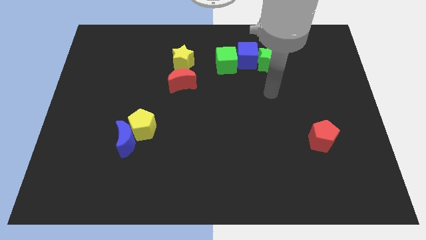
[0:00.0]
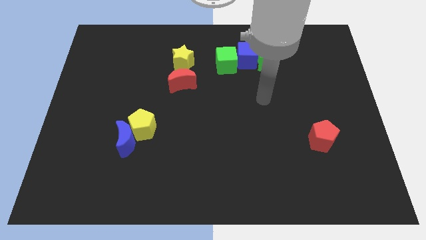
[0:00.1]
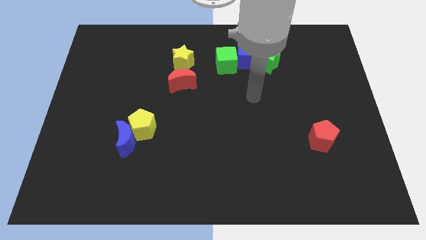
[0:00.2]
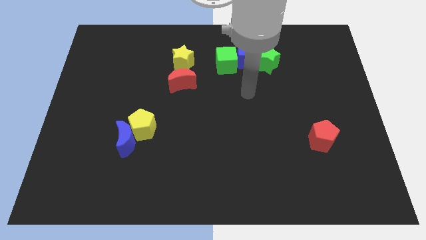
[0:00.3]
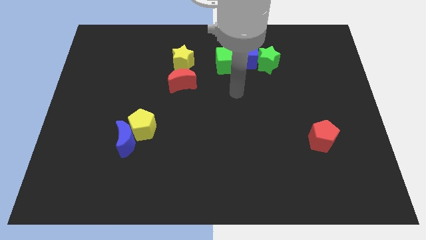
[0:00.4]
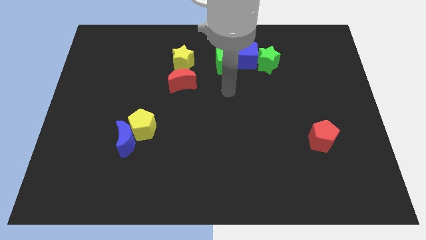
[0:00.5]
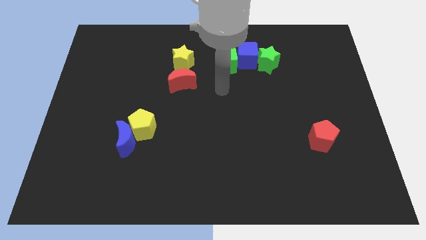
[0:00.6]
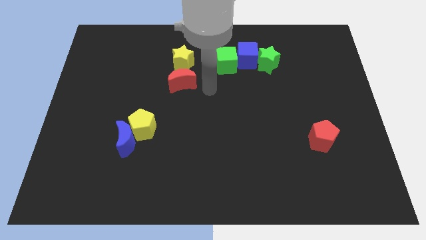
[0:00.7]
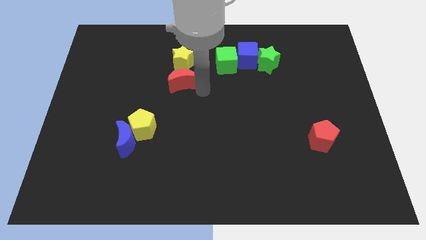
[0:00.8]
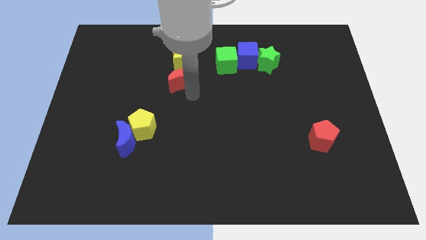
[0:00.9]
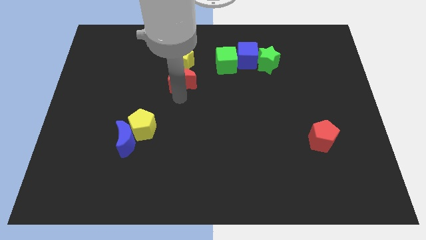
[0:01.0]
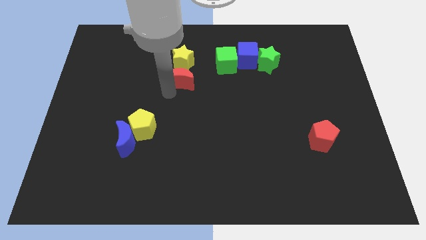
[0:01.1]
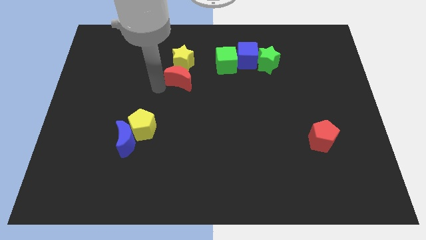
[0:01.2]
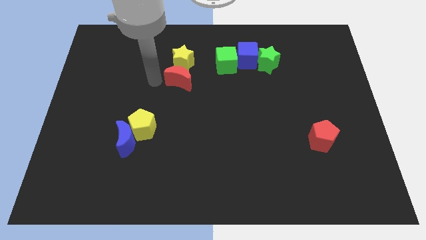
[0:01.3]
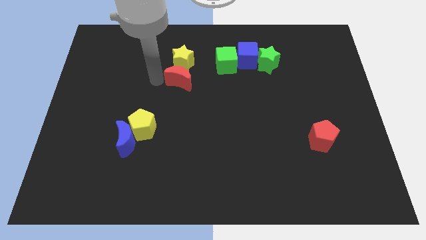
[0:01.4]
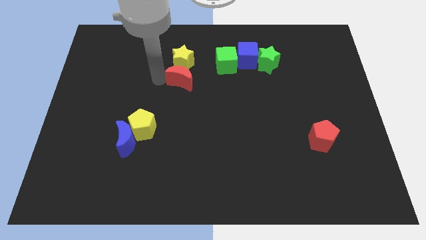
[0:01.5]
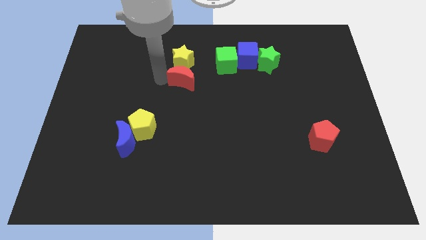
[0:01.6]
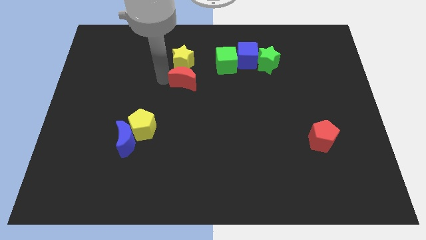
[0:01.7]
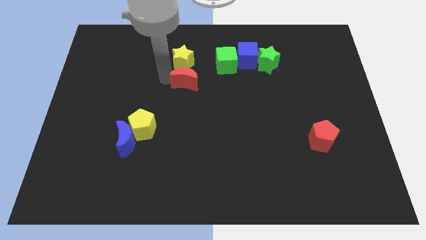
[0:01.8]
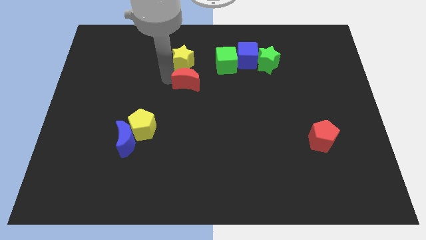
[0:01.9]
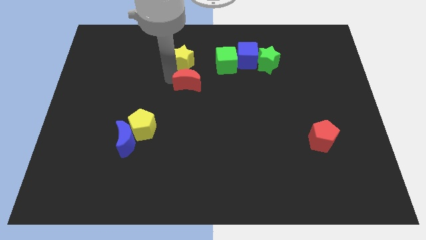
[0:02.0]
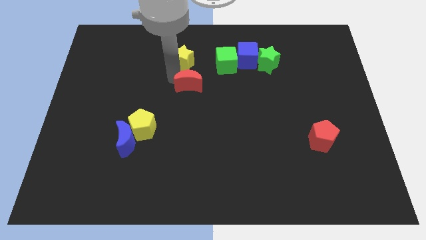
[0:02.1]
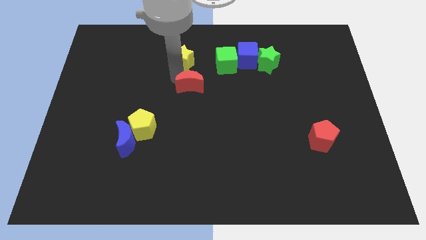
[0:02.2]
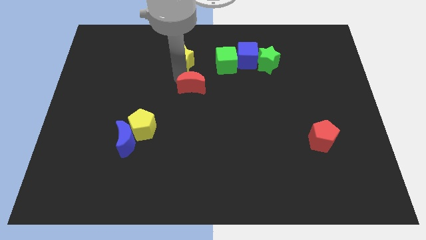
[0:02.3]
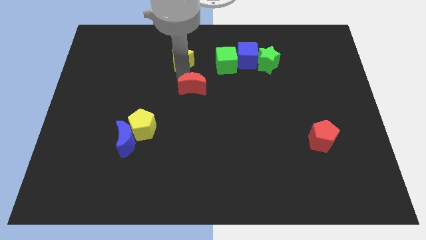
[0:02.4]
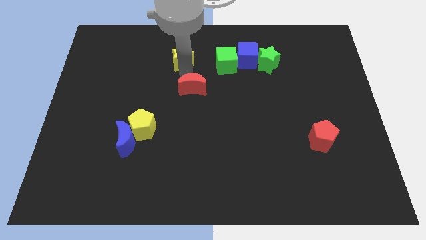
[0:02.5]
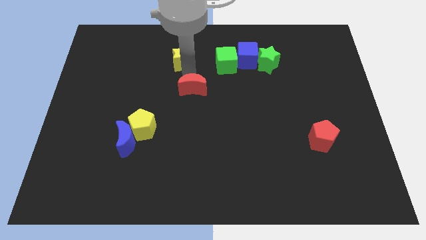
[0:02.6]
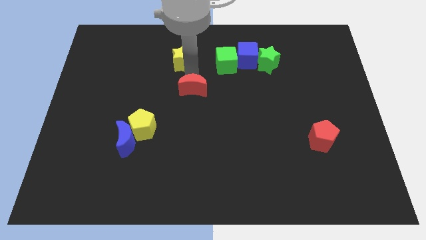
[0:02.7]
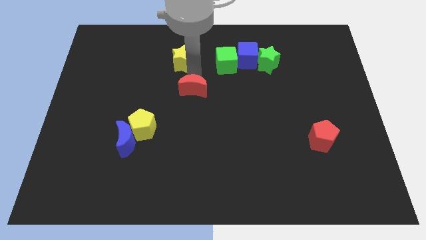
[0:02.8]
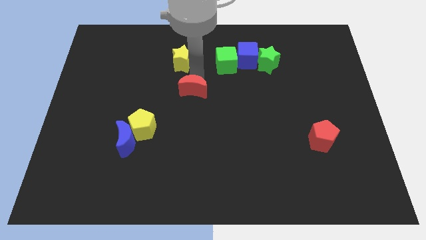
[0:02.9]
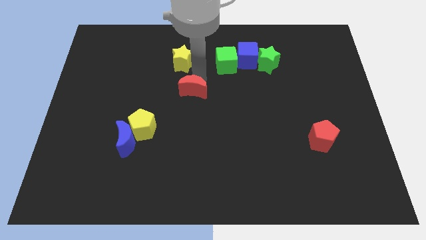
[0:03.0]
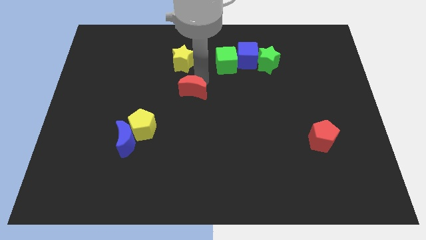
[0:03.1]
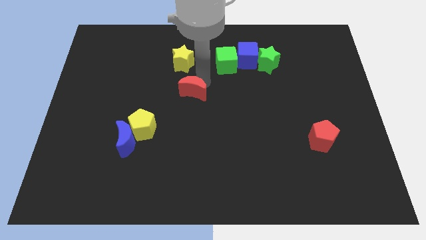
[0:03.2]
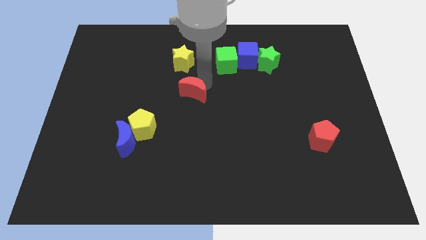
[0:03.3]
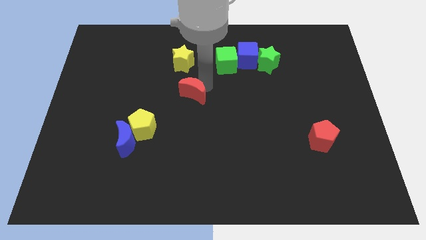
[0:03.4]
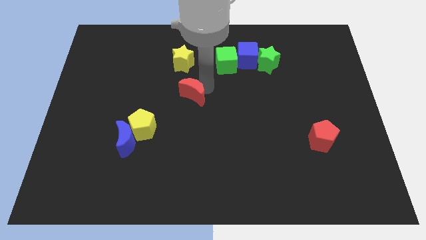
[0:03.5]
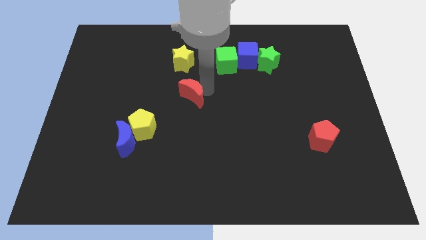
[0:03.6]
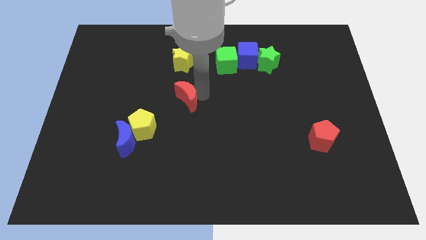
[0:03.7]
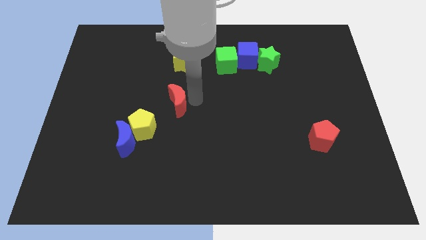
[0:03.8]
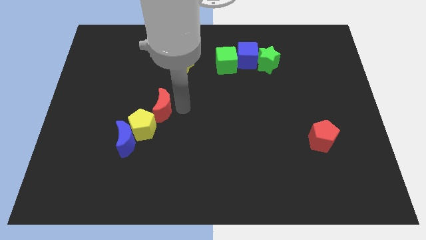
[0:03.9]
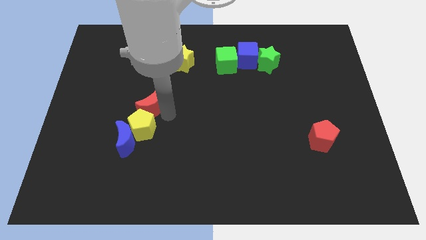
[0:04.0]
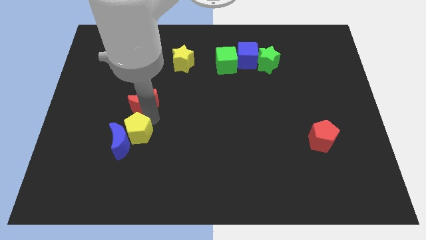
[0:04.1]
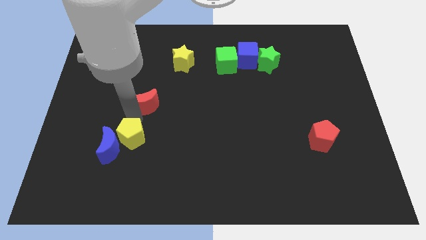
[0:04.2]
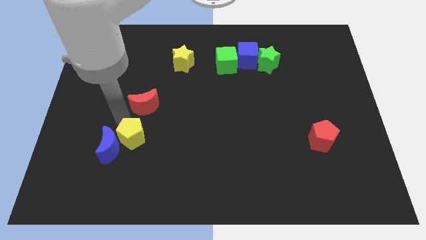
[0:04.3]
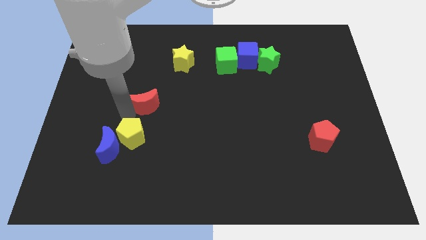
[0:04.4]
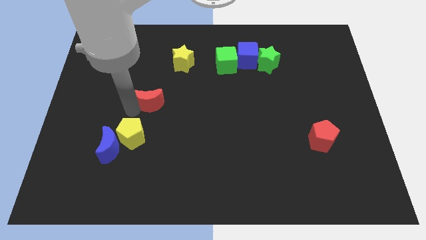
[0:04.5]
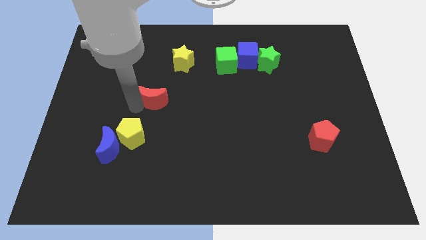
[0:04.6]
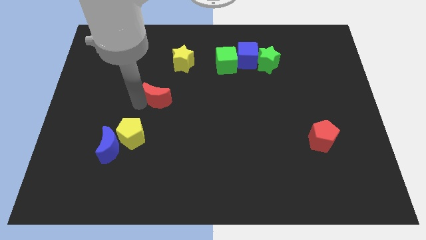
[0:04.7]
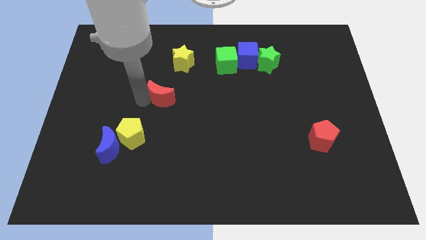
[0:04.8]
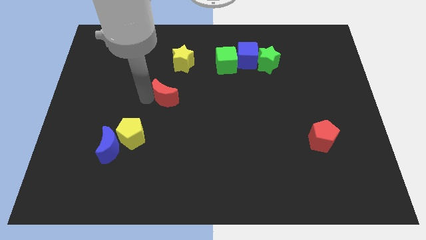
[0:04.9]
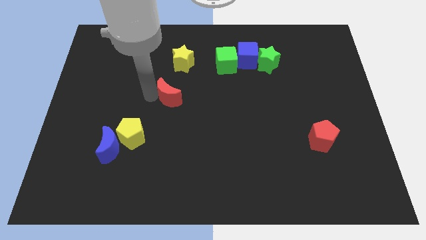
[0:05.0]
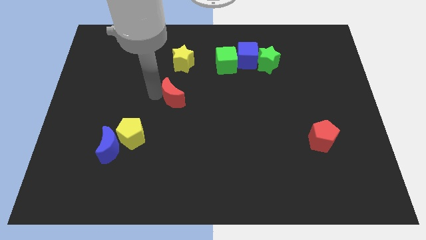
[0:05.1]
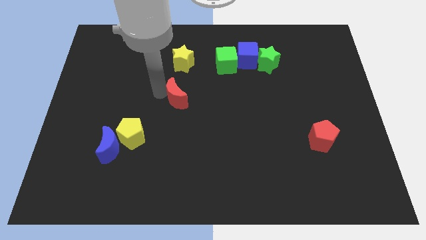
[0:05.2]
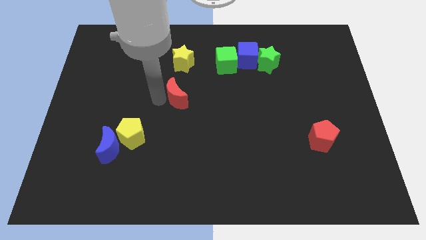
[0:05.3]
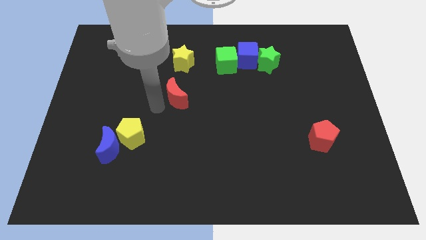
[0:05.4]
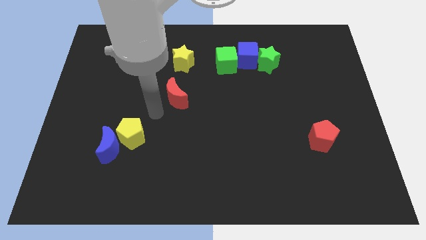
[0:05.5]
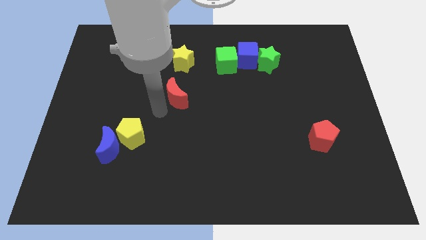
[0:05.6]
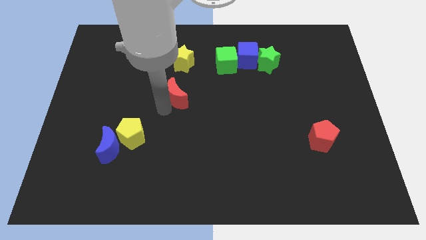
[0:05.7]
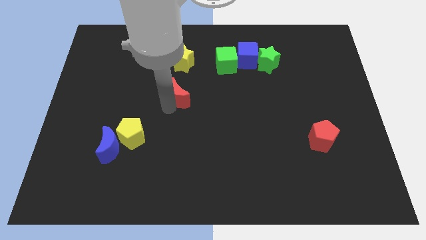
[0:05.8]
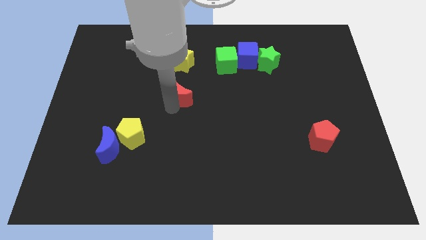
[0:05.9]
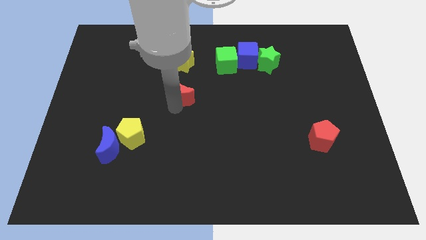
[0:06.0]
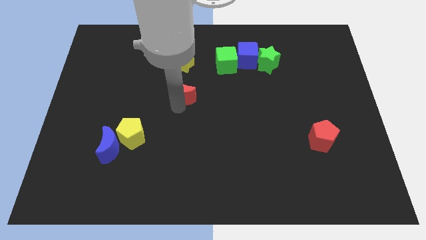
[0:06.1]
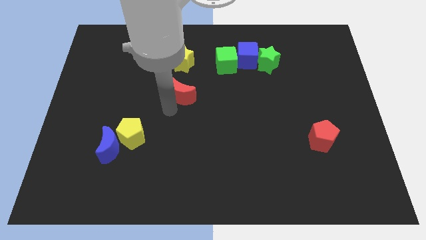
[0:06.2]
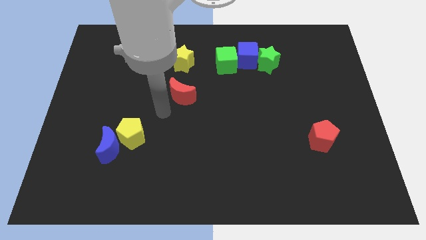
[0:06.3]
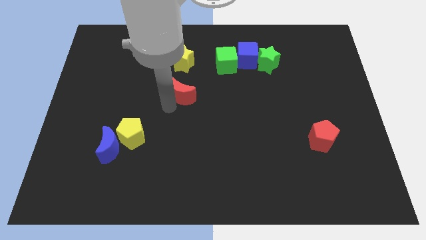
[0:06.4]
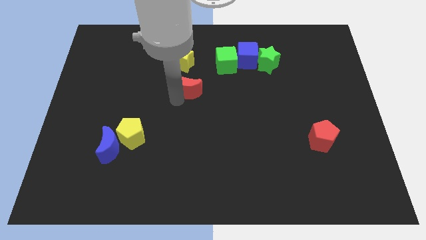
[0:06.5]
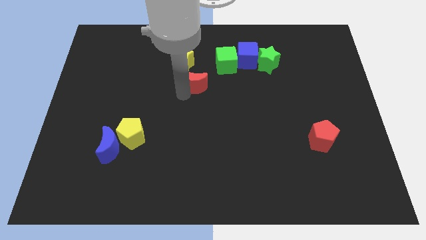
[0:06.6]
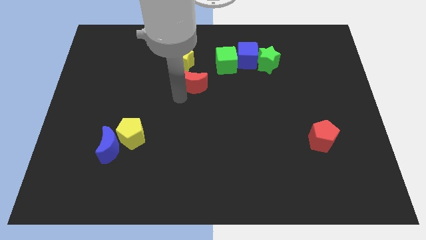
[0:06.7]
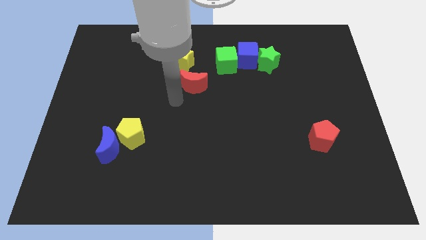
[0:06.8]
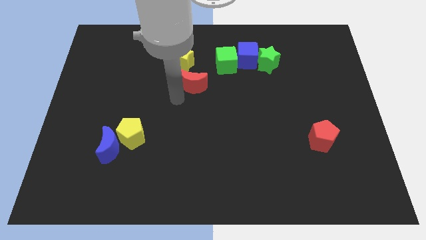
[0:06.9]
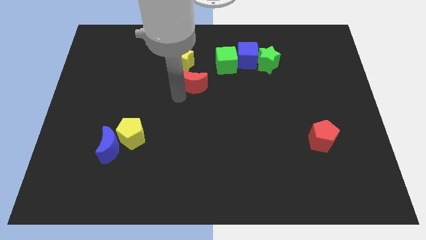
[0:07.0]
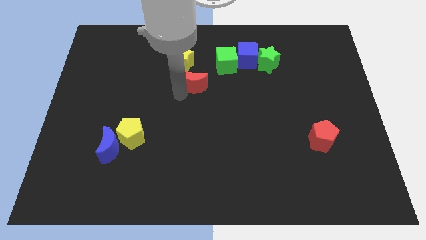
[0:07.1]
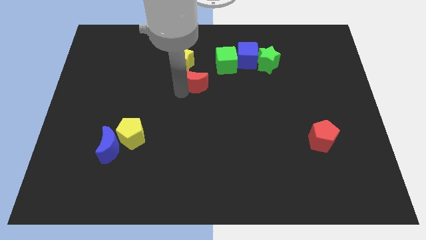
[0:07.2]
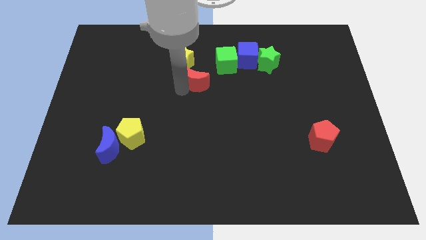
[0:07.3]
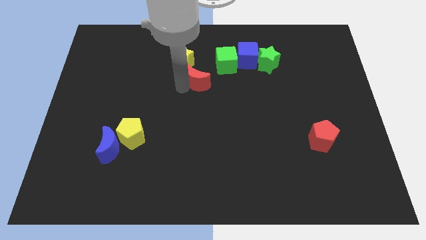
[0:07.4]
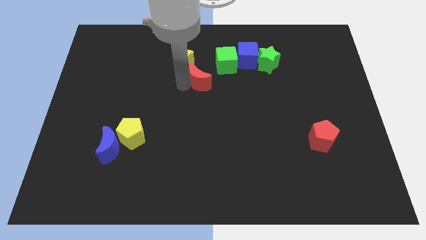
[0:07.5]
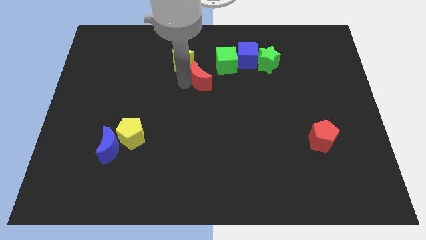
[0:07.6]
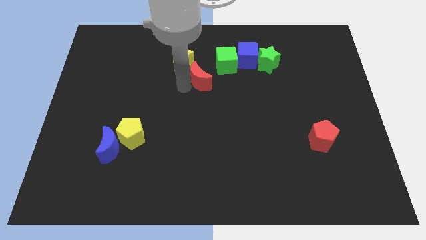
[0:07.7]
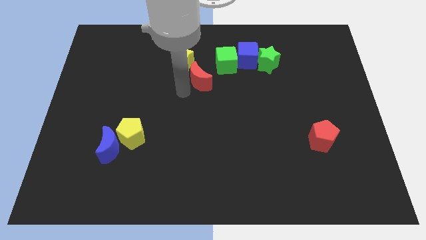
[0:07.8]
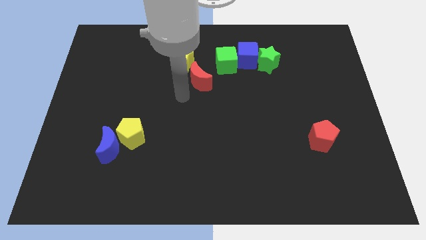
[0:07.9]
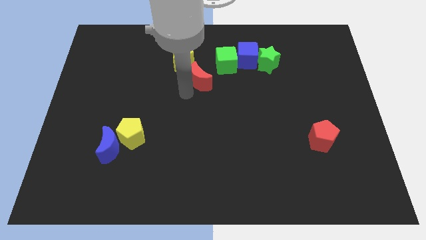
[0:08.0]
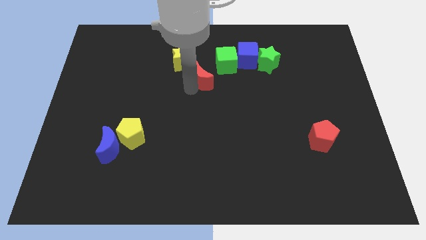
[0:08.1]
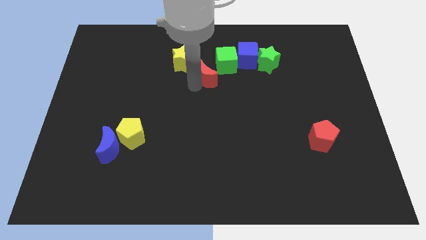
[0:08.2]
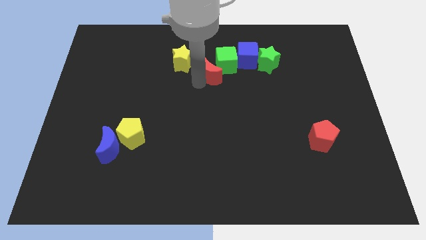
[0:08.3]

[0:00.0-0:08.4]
slide the red moon to the green cube
